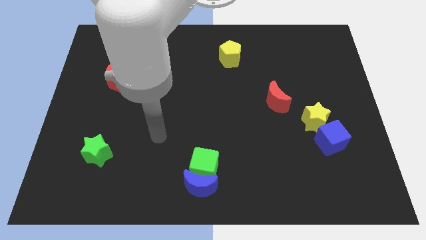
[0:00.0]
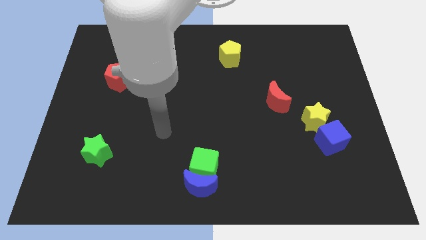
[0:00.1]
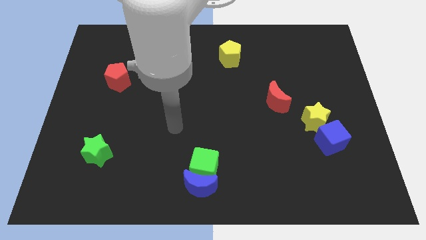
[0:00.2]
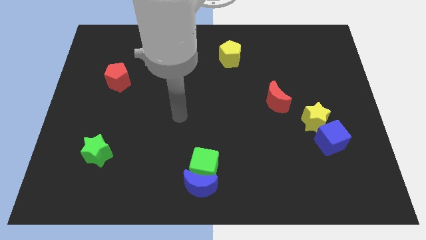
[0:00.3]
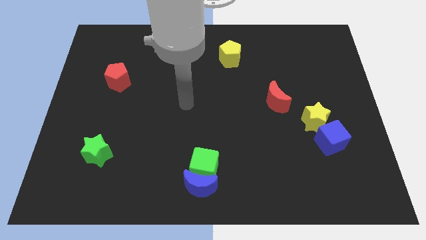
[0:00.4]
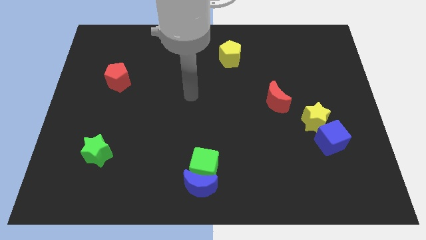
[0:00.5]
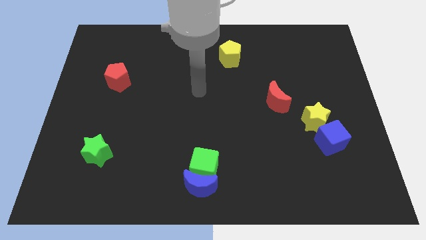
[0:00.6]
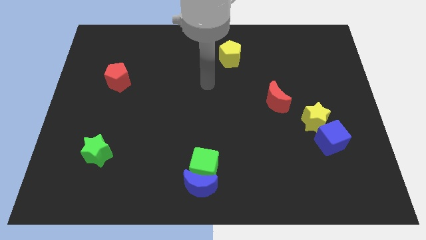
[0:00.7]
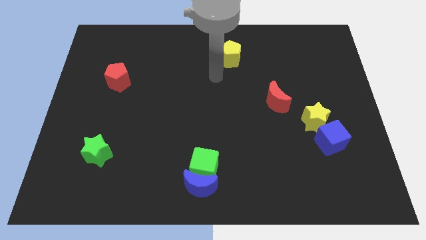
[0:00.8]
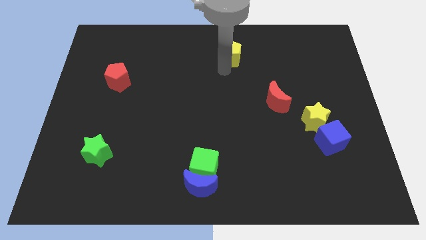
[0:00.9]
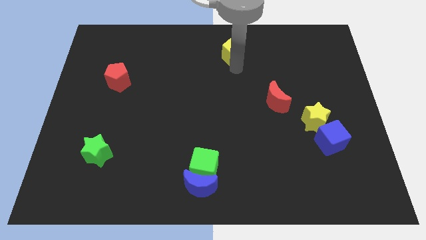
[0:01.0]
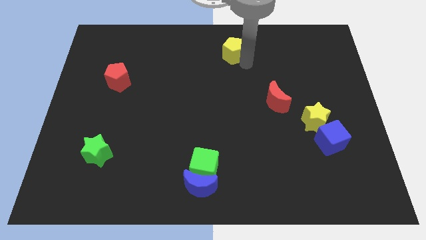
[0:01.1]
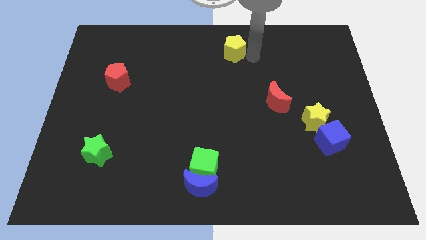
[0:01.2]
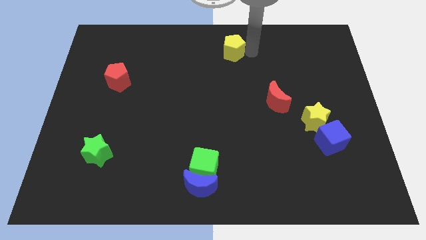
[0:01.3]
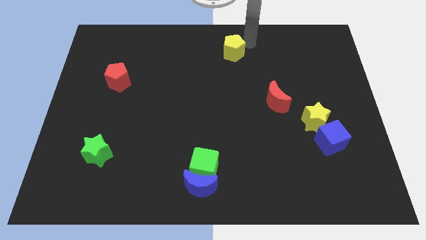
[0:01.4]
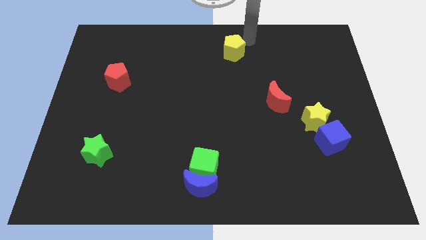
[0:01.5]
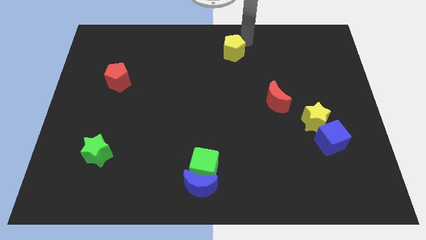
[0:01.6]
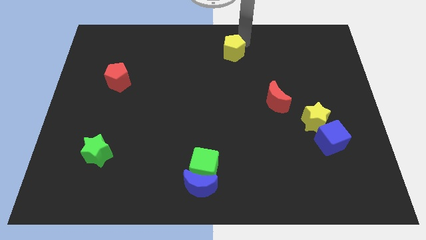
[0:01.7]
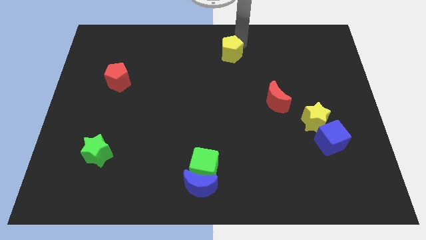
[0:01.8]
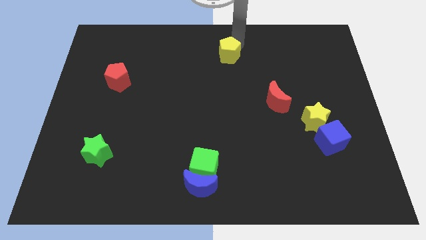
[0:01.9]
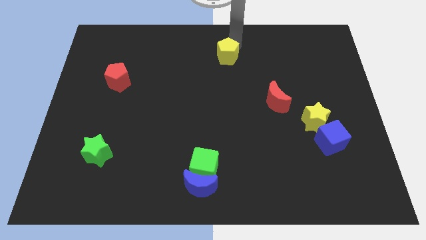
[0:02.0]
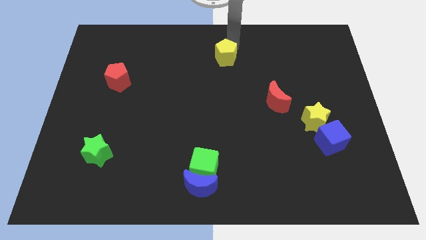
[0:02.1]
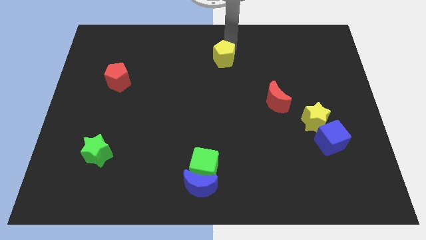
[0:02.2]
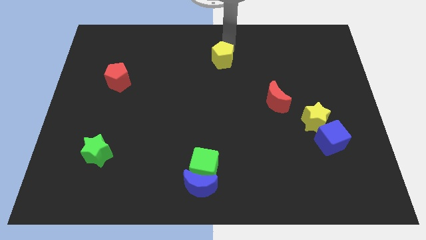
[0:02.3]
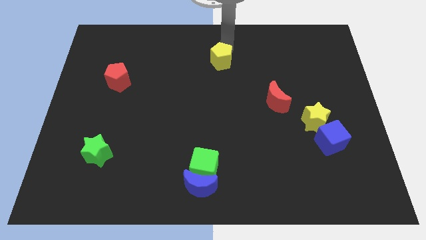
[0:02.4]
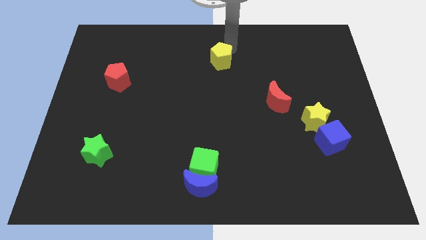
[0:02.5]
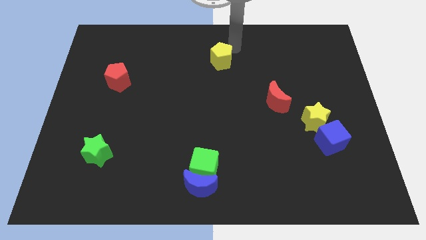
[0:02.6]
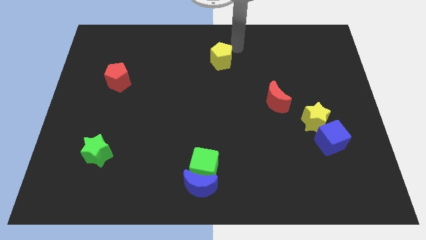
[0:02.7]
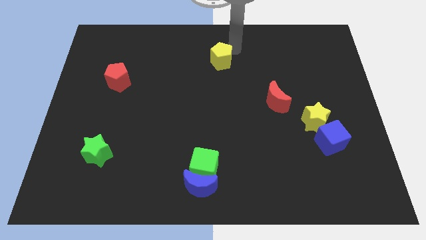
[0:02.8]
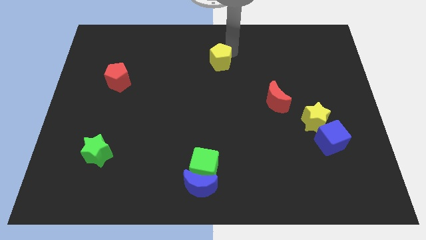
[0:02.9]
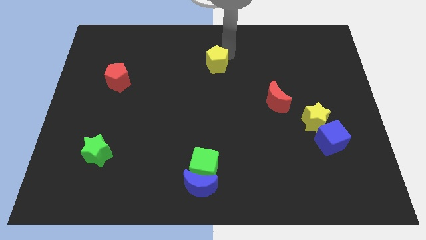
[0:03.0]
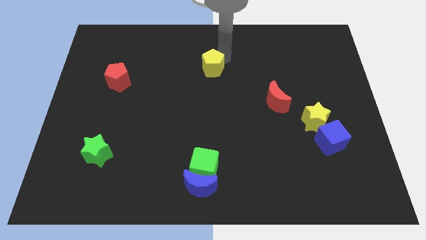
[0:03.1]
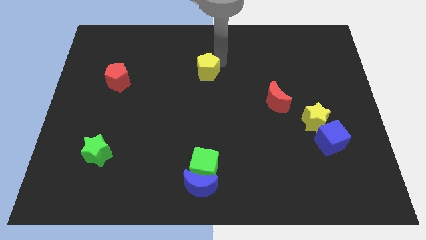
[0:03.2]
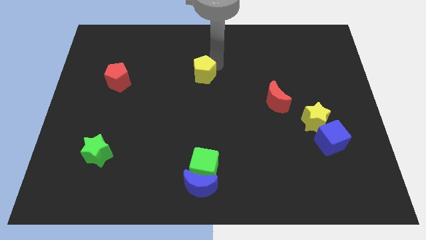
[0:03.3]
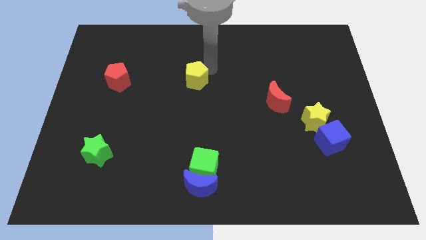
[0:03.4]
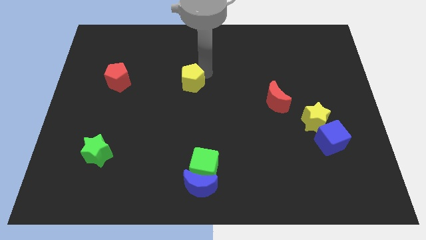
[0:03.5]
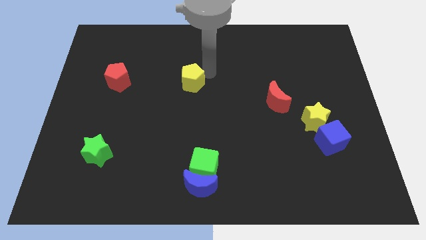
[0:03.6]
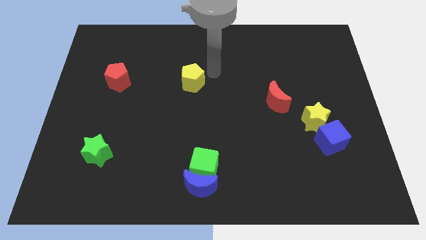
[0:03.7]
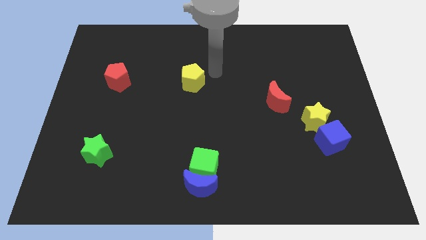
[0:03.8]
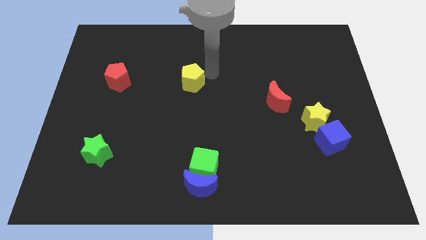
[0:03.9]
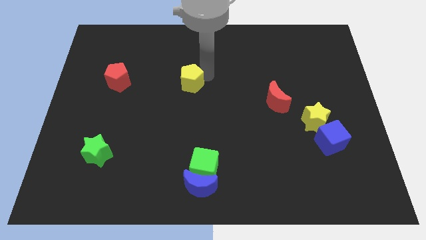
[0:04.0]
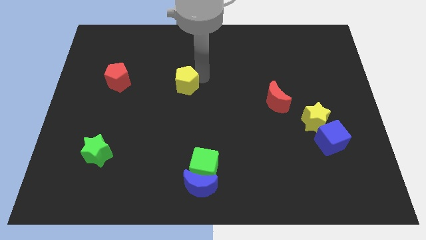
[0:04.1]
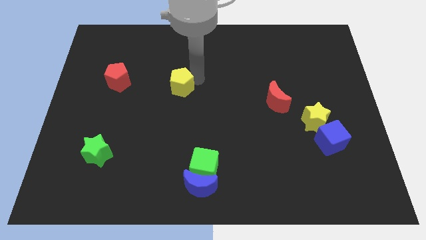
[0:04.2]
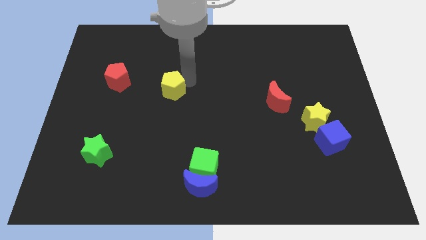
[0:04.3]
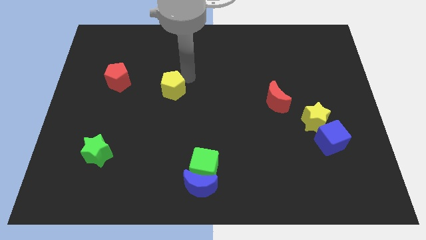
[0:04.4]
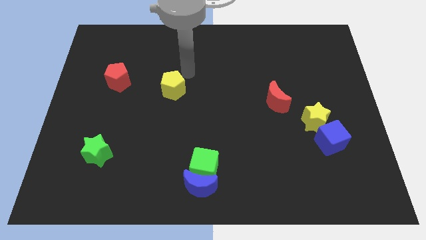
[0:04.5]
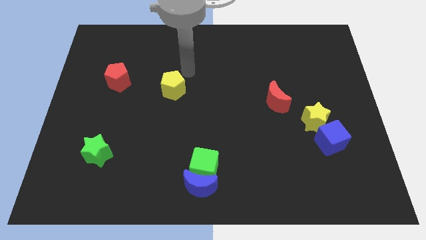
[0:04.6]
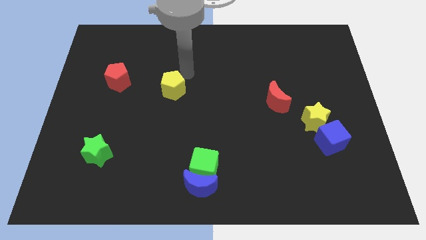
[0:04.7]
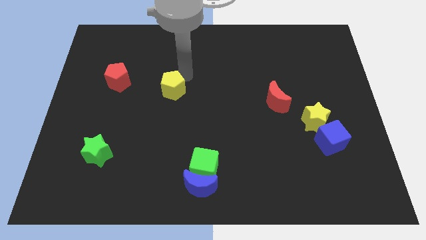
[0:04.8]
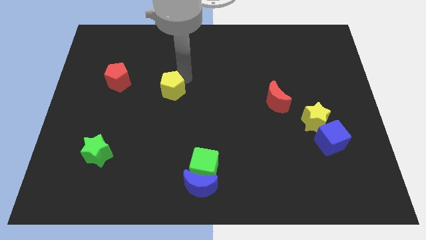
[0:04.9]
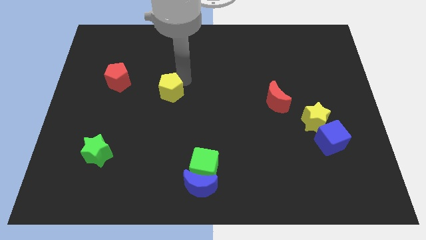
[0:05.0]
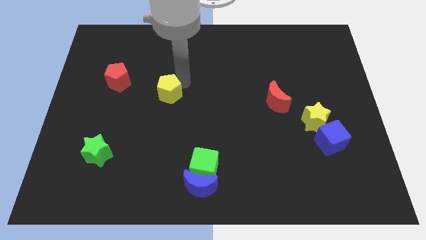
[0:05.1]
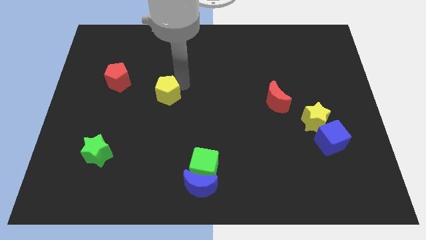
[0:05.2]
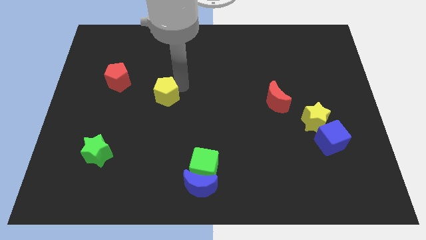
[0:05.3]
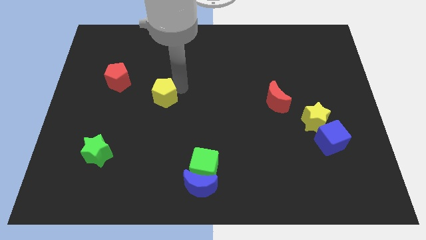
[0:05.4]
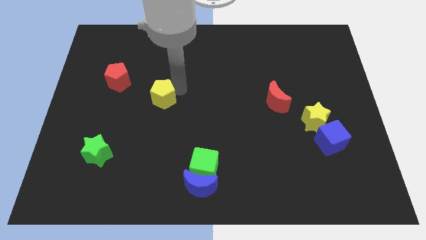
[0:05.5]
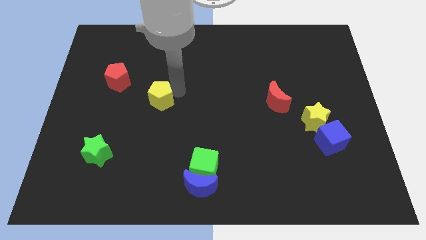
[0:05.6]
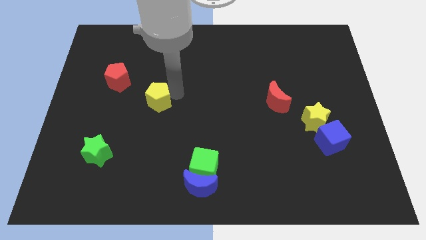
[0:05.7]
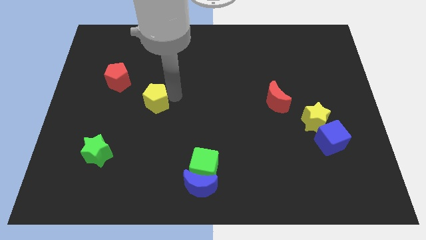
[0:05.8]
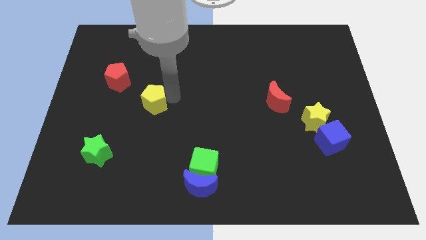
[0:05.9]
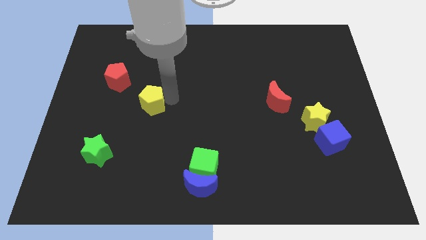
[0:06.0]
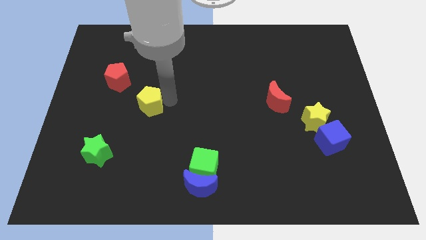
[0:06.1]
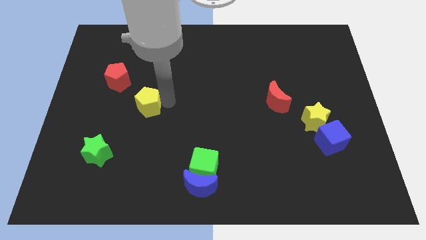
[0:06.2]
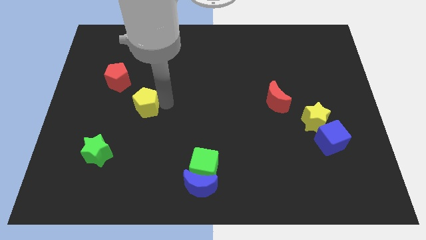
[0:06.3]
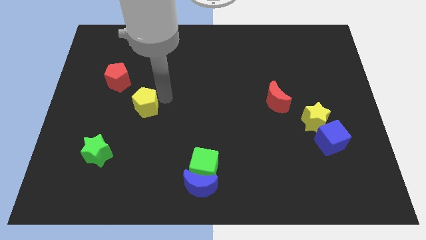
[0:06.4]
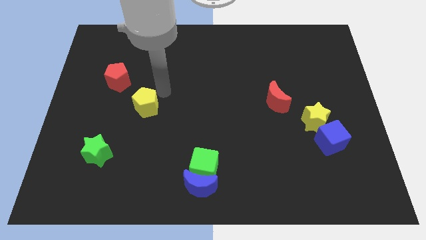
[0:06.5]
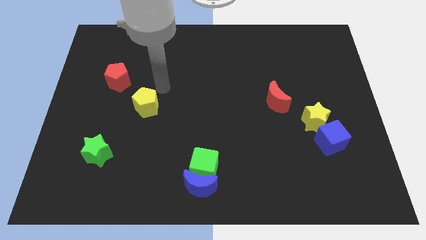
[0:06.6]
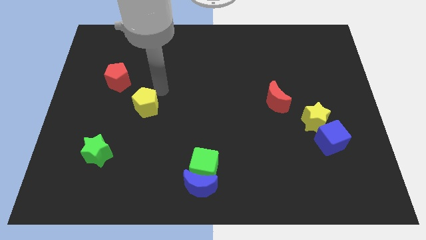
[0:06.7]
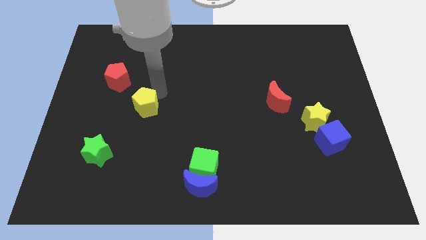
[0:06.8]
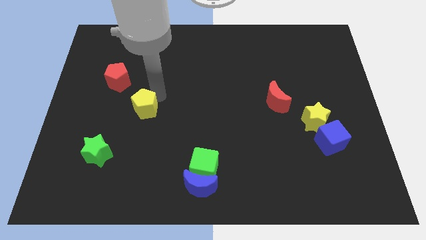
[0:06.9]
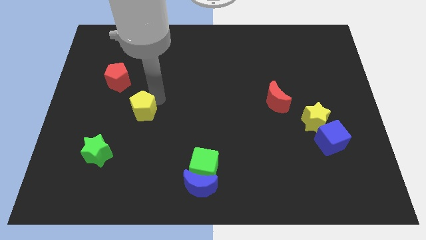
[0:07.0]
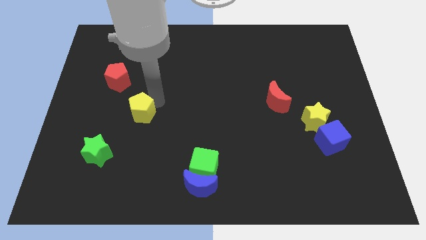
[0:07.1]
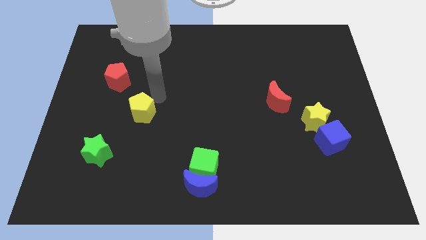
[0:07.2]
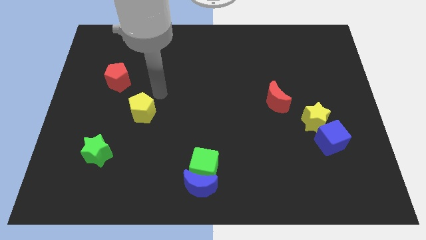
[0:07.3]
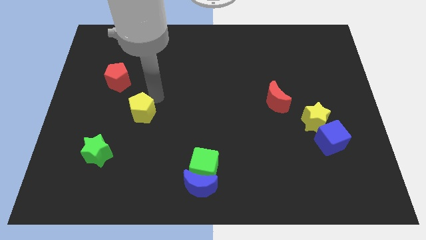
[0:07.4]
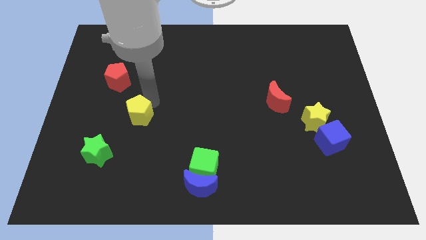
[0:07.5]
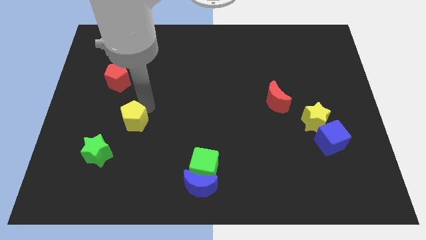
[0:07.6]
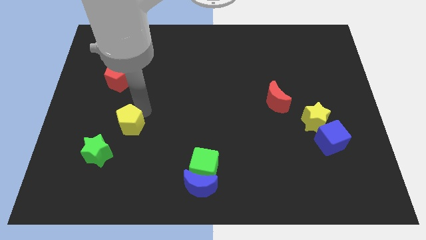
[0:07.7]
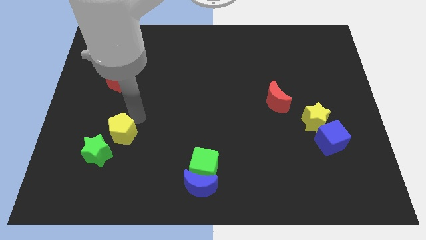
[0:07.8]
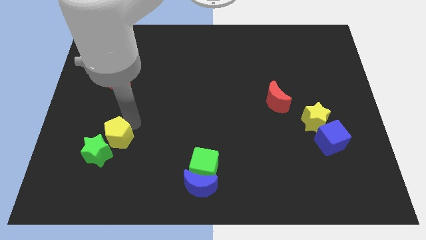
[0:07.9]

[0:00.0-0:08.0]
push the yellow pentagon next to the green star
